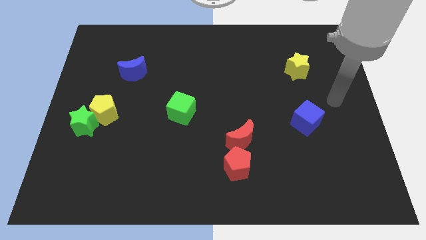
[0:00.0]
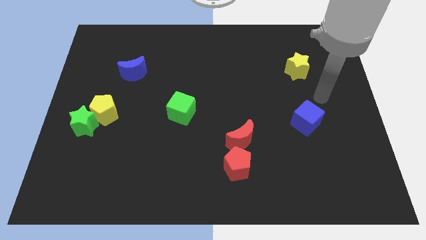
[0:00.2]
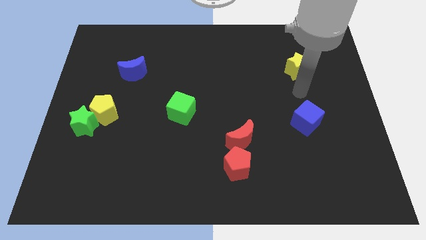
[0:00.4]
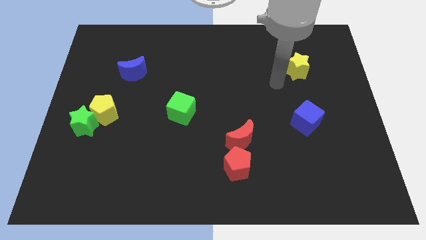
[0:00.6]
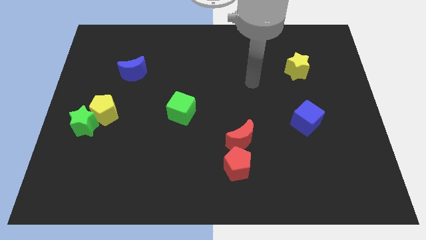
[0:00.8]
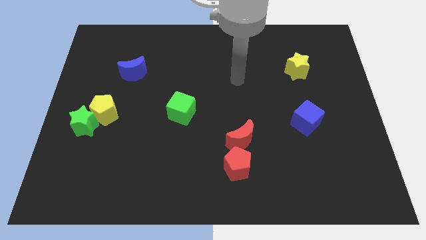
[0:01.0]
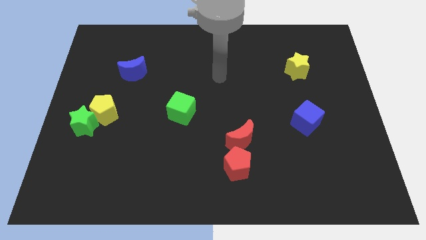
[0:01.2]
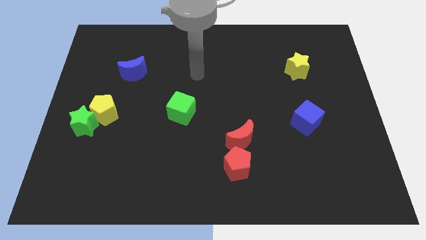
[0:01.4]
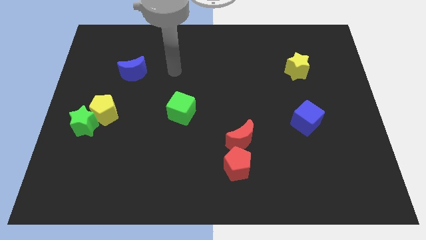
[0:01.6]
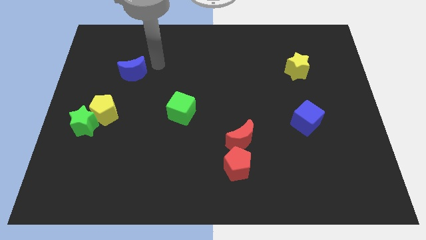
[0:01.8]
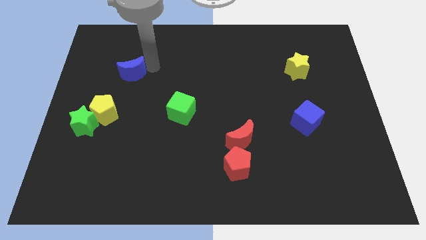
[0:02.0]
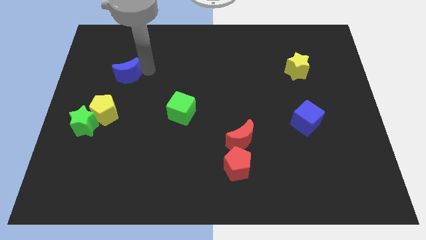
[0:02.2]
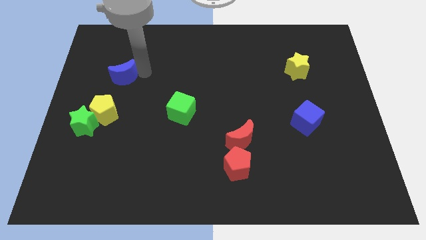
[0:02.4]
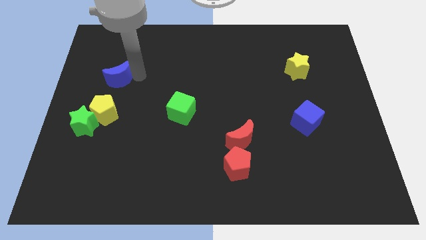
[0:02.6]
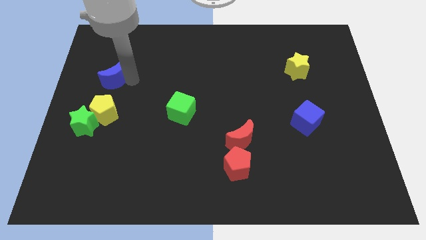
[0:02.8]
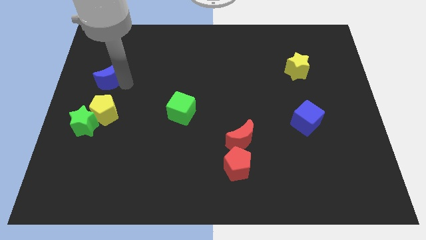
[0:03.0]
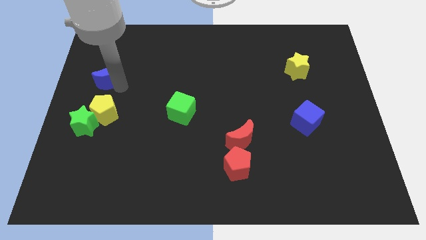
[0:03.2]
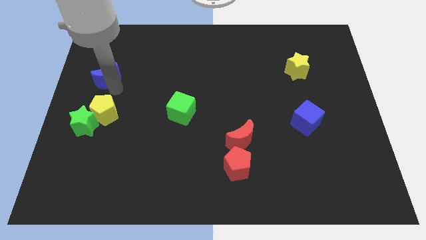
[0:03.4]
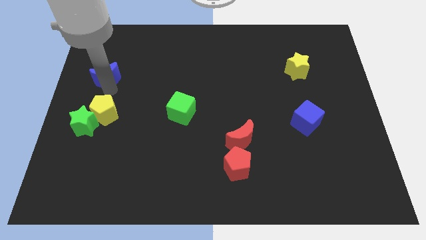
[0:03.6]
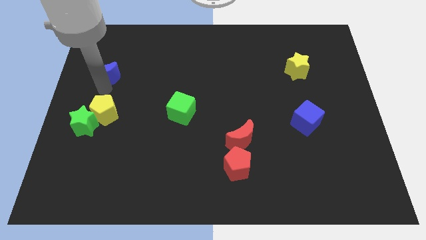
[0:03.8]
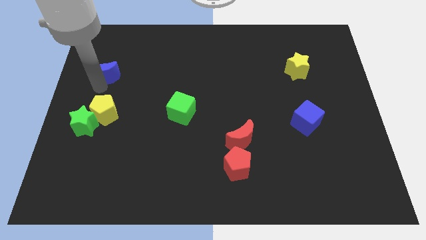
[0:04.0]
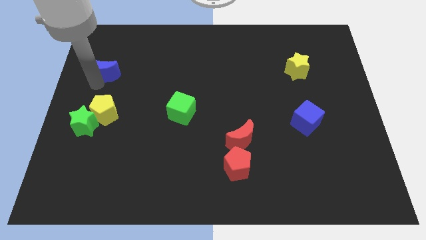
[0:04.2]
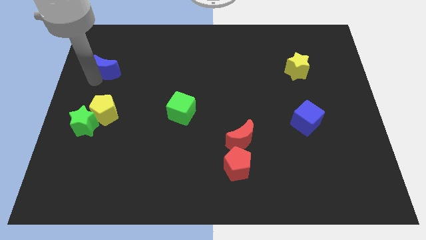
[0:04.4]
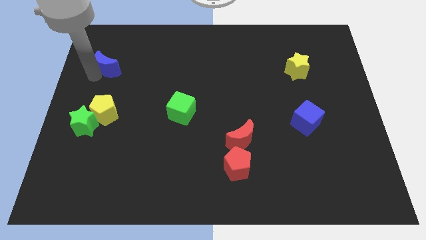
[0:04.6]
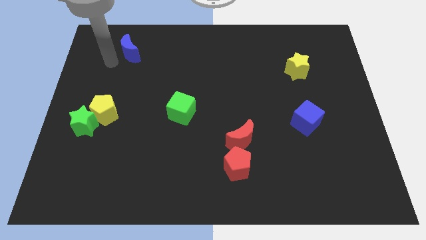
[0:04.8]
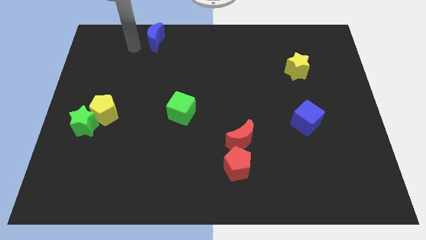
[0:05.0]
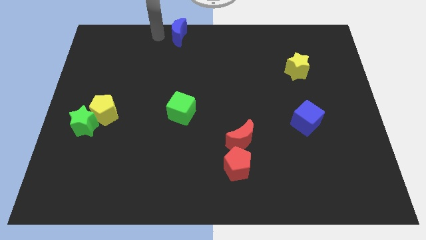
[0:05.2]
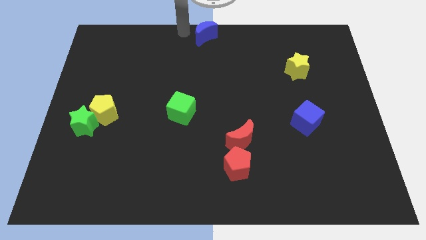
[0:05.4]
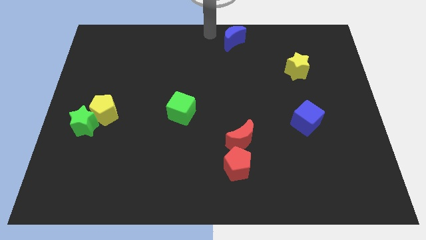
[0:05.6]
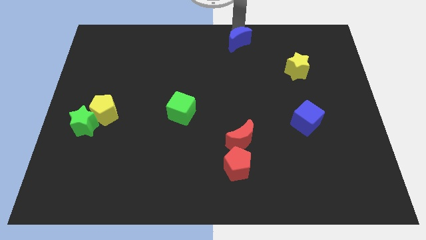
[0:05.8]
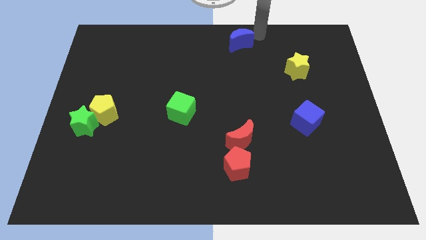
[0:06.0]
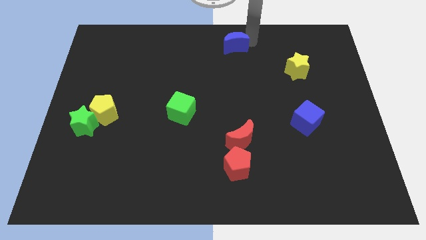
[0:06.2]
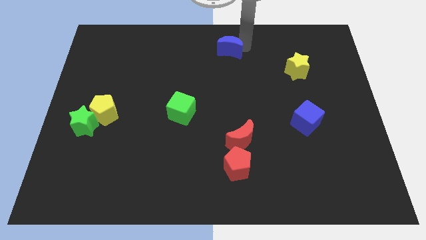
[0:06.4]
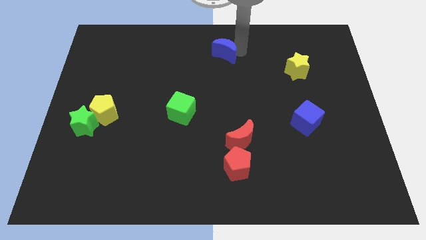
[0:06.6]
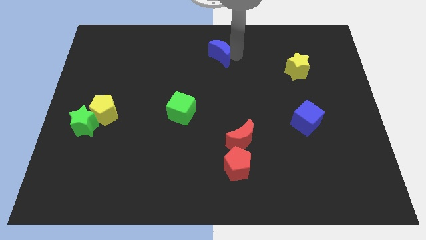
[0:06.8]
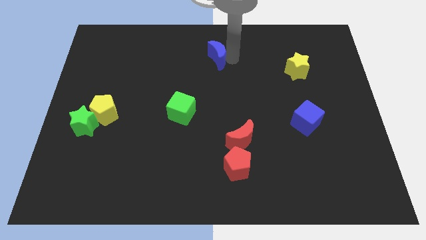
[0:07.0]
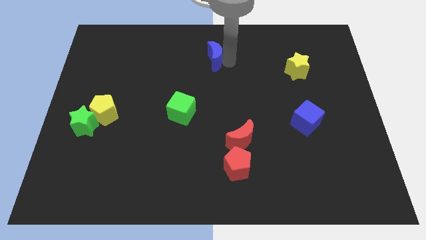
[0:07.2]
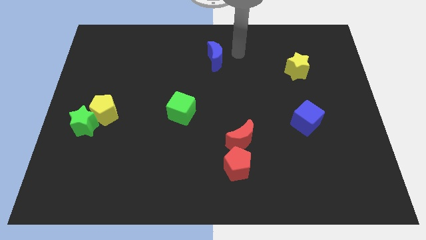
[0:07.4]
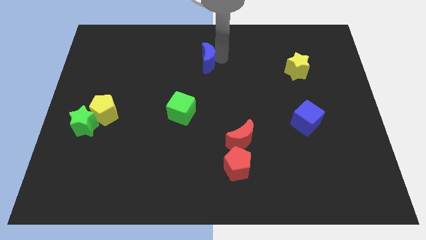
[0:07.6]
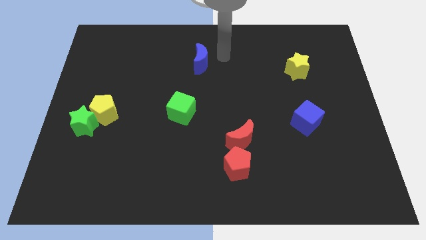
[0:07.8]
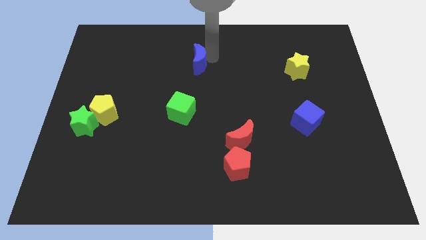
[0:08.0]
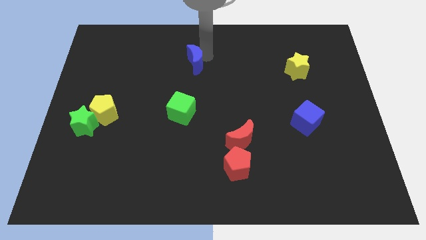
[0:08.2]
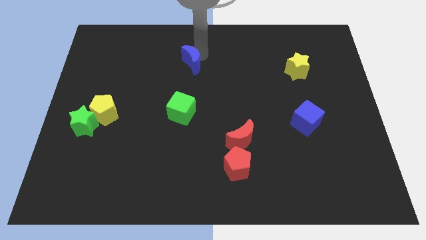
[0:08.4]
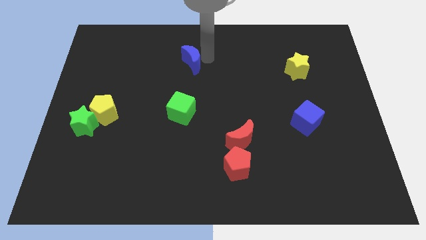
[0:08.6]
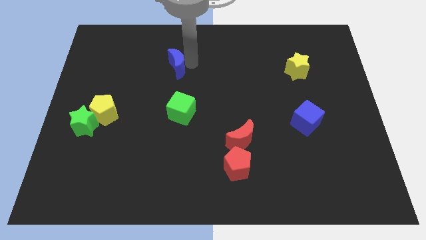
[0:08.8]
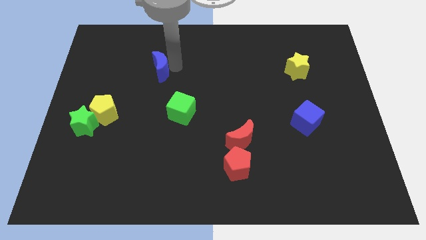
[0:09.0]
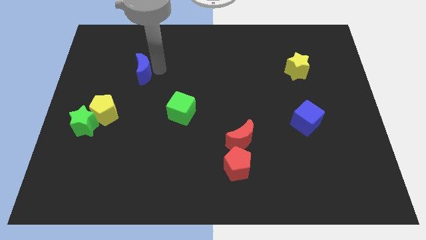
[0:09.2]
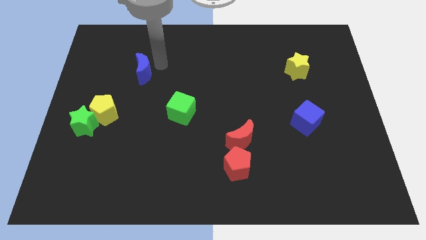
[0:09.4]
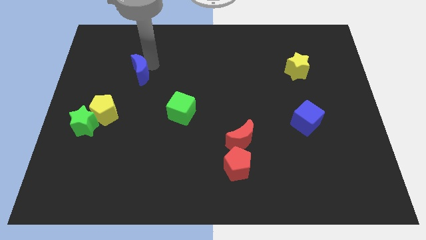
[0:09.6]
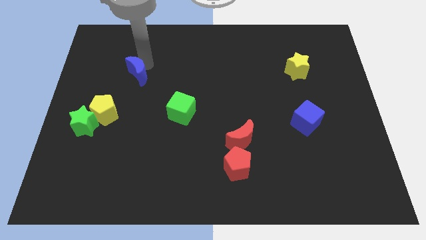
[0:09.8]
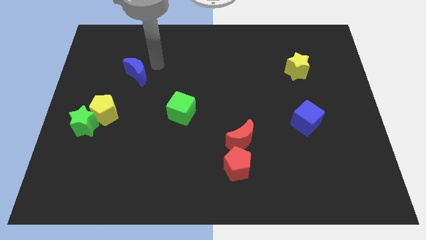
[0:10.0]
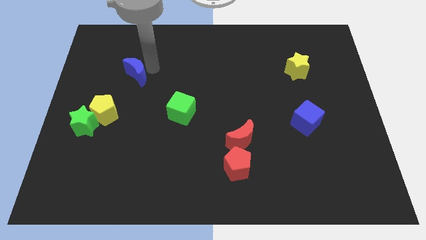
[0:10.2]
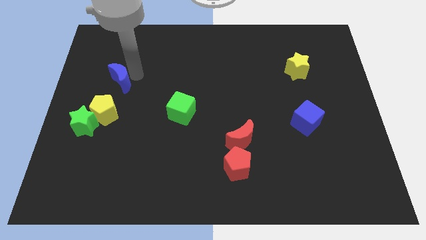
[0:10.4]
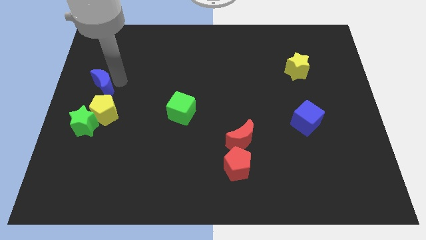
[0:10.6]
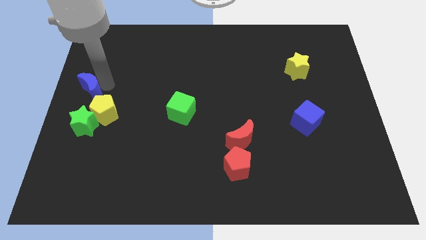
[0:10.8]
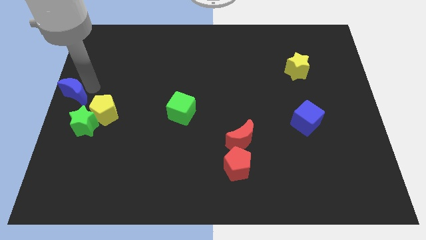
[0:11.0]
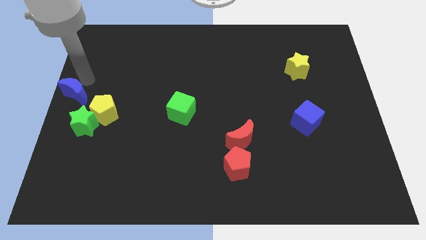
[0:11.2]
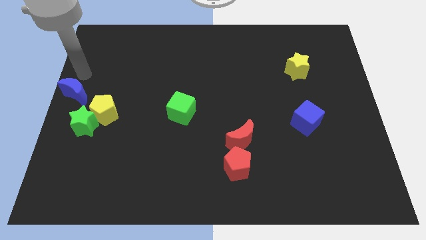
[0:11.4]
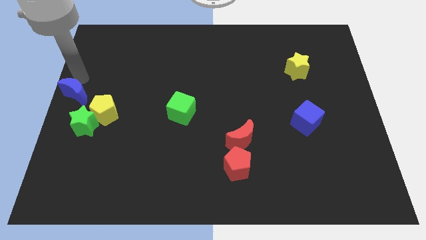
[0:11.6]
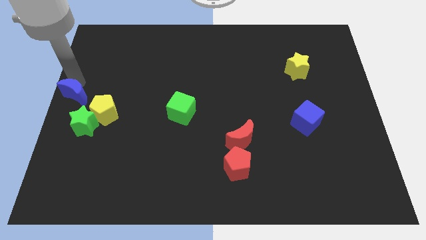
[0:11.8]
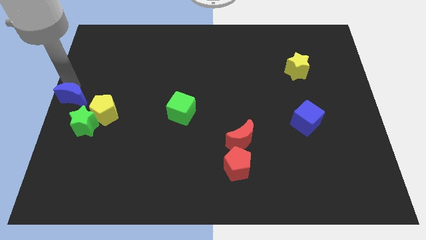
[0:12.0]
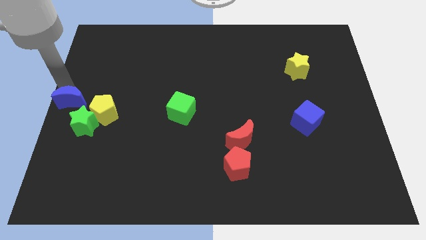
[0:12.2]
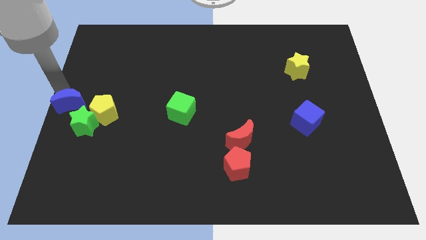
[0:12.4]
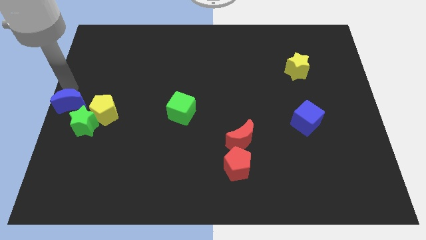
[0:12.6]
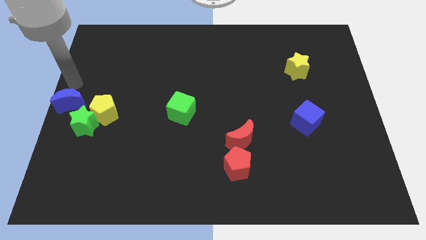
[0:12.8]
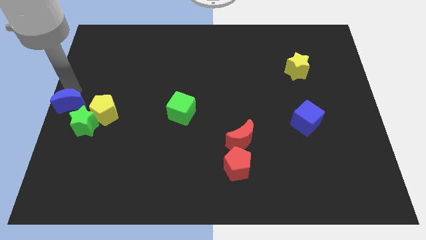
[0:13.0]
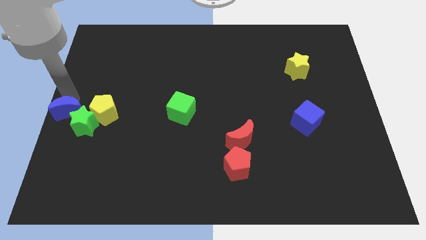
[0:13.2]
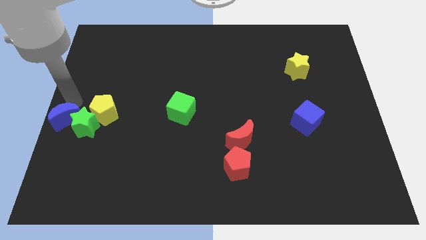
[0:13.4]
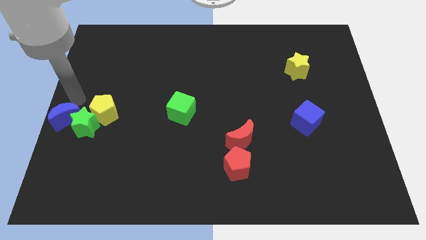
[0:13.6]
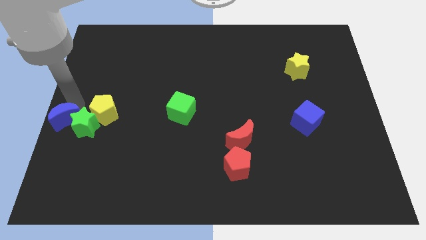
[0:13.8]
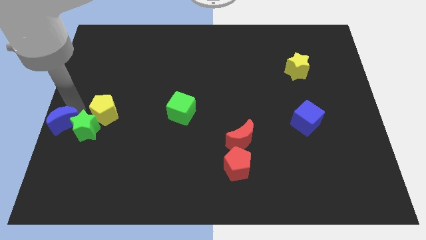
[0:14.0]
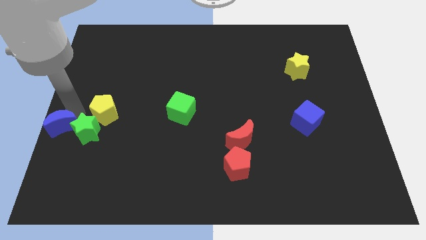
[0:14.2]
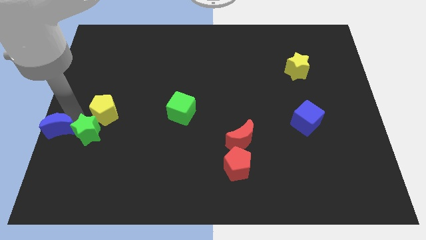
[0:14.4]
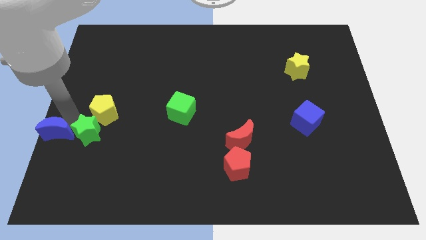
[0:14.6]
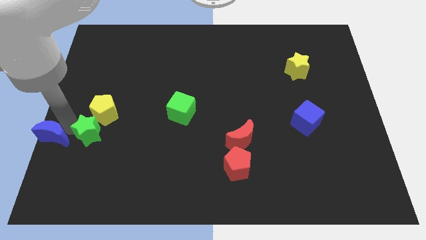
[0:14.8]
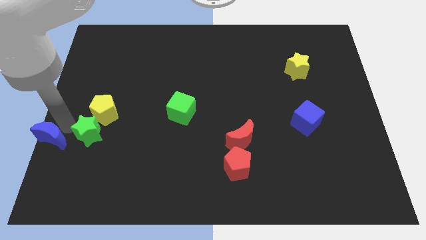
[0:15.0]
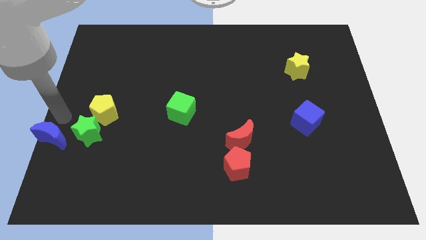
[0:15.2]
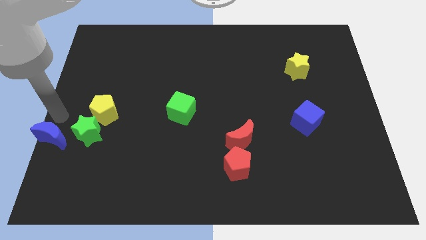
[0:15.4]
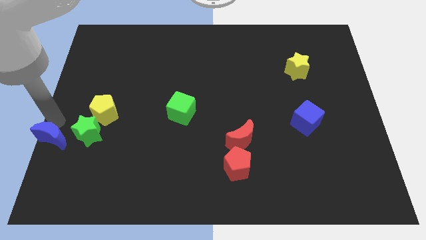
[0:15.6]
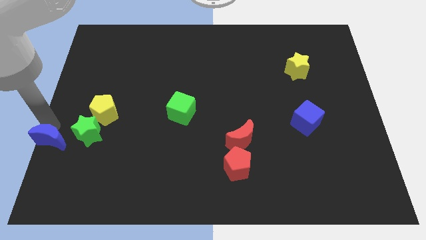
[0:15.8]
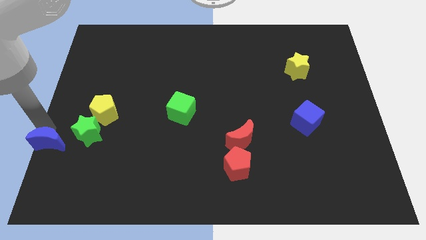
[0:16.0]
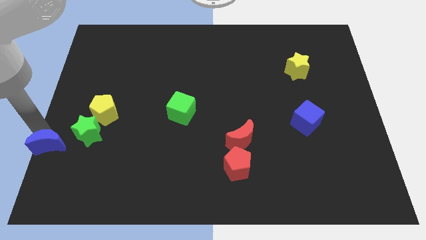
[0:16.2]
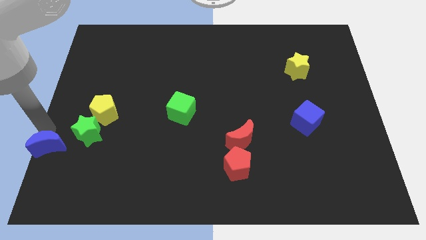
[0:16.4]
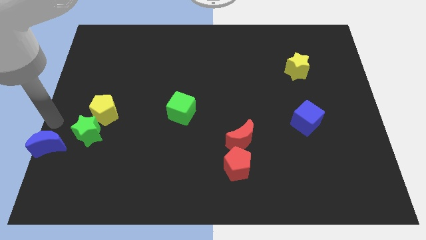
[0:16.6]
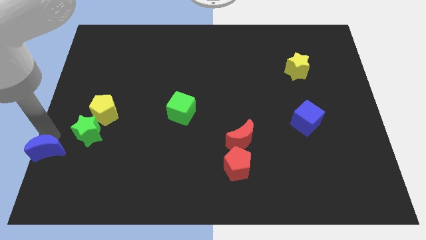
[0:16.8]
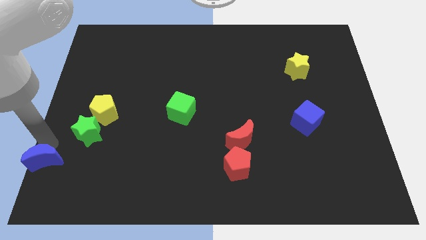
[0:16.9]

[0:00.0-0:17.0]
push the blue moon to the bottom left
